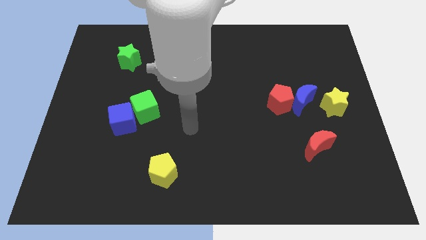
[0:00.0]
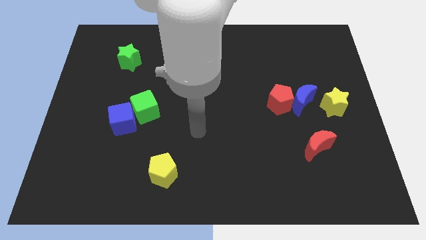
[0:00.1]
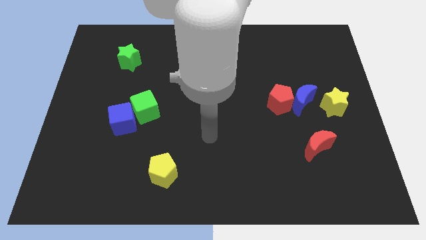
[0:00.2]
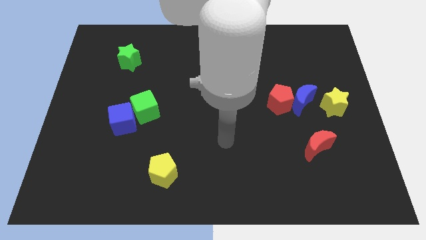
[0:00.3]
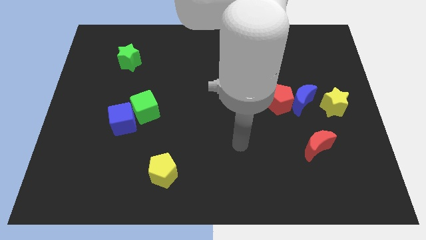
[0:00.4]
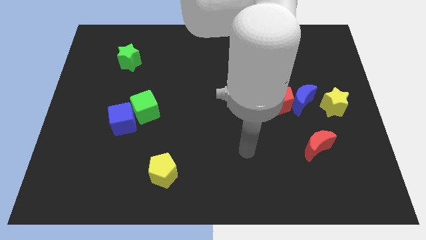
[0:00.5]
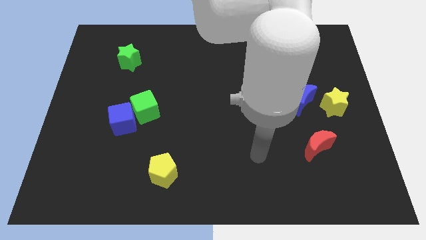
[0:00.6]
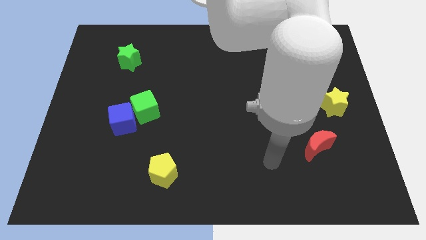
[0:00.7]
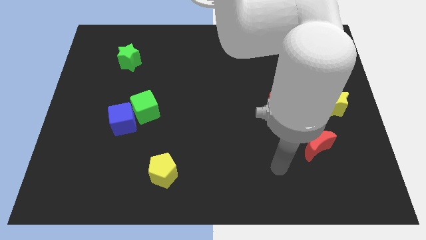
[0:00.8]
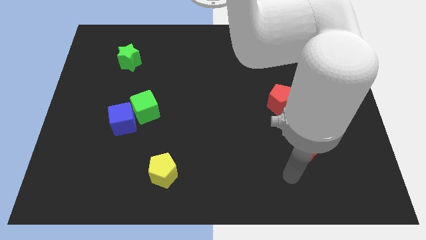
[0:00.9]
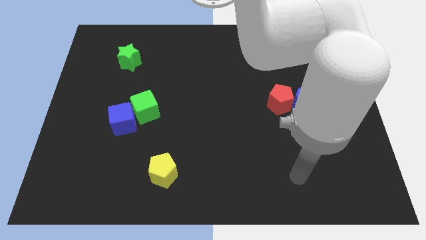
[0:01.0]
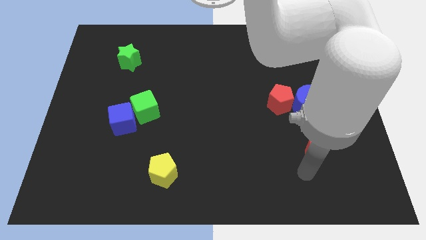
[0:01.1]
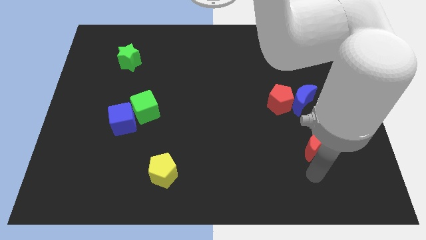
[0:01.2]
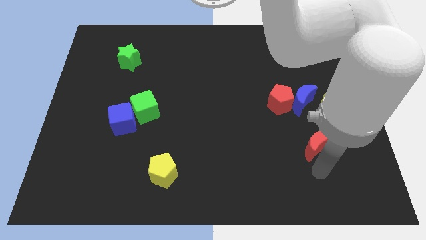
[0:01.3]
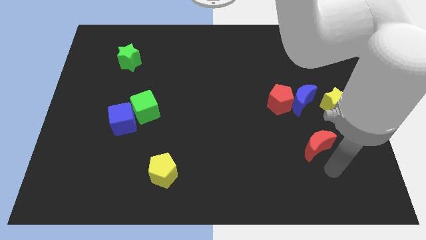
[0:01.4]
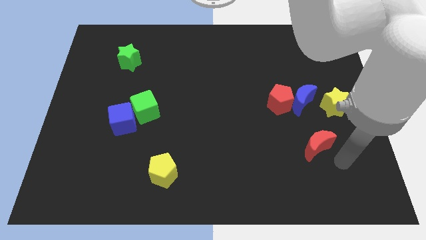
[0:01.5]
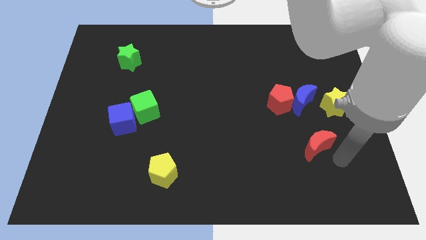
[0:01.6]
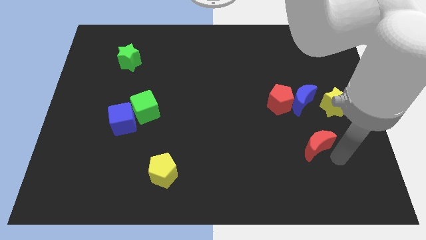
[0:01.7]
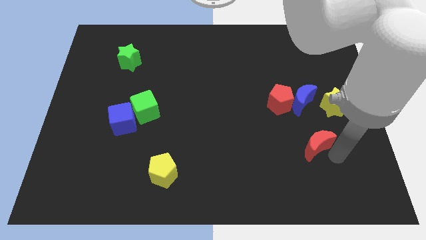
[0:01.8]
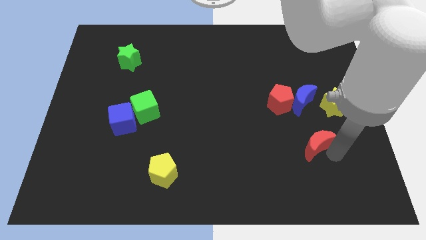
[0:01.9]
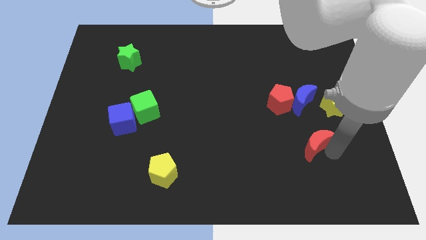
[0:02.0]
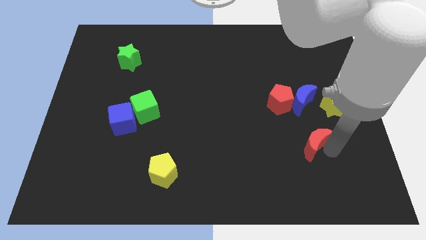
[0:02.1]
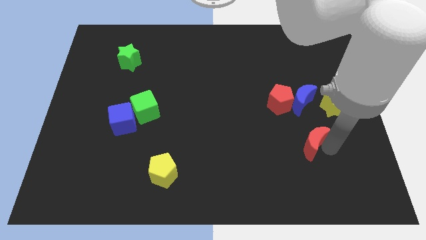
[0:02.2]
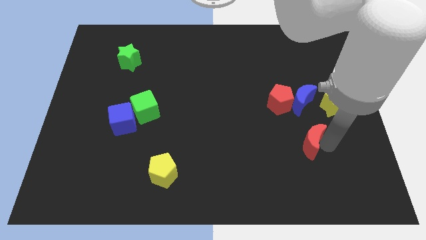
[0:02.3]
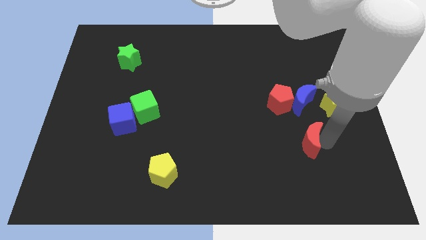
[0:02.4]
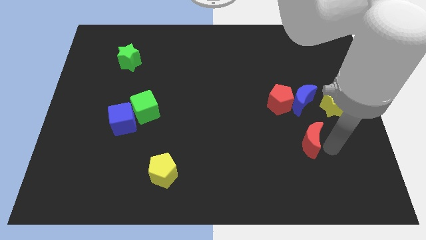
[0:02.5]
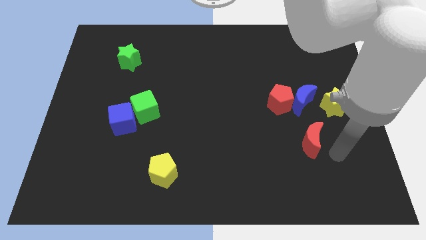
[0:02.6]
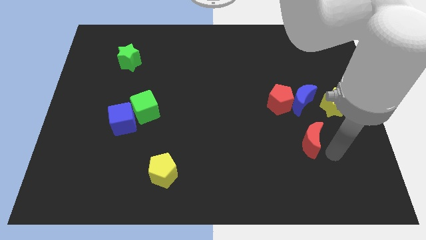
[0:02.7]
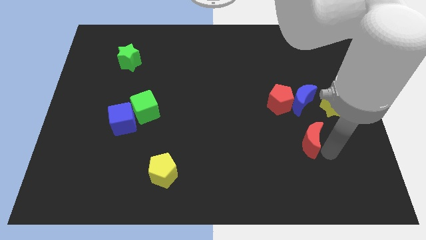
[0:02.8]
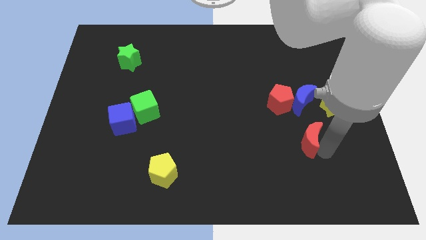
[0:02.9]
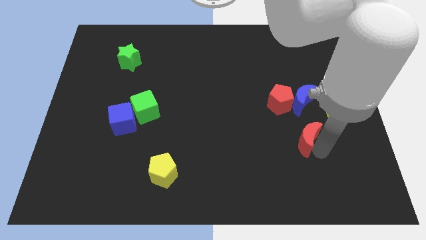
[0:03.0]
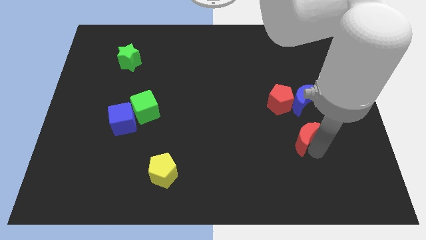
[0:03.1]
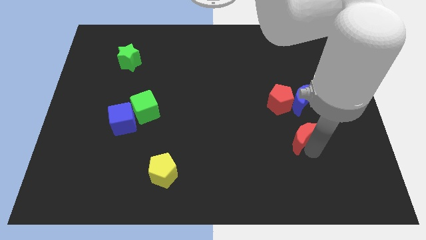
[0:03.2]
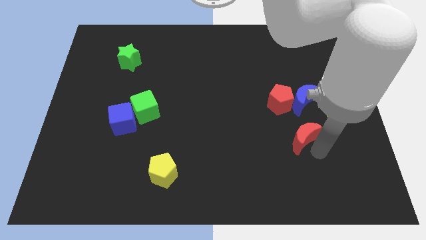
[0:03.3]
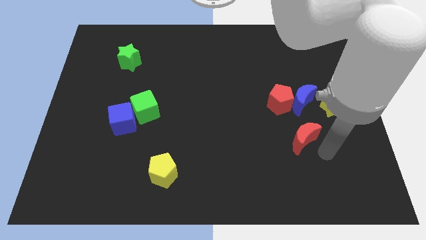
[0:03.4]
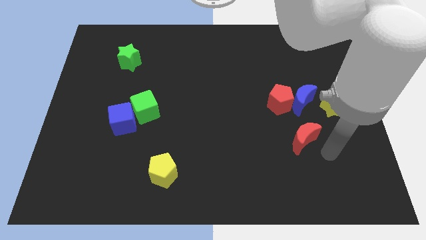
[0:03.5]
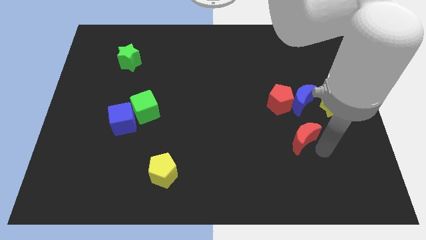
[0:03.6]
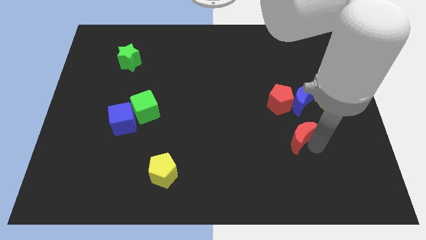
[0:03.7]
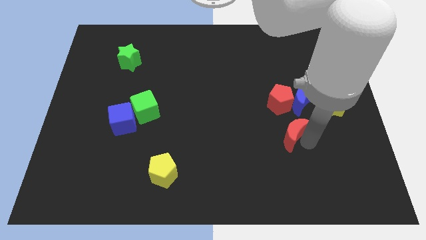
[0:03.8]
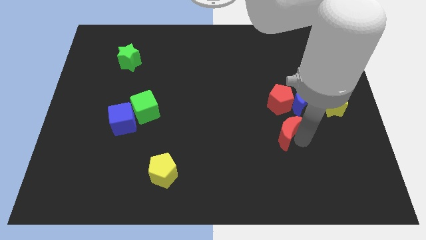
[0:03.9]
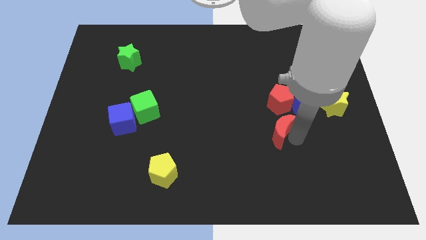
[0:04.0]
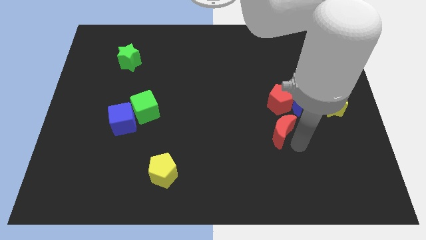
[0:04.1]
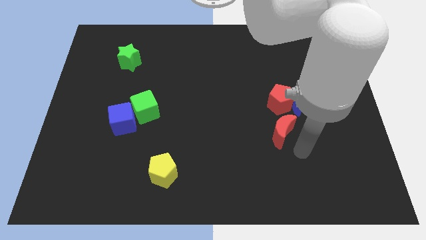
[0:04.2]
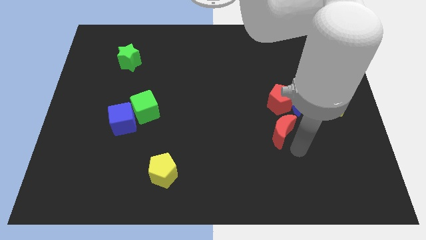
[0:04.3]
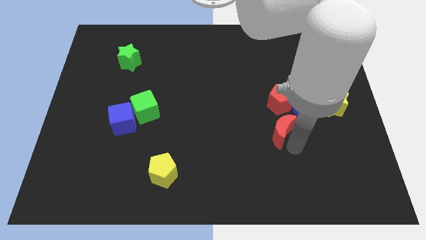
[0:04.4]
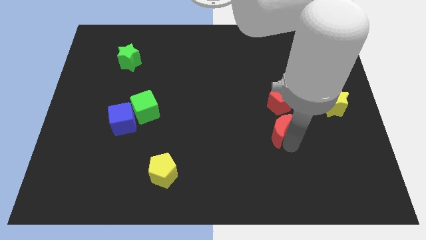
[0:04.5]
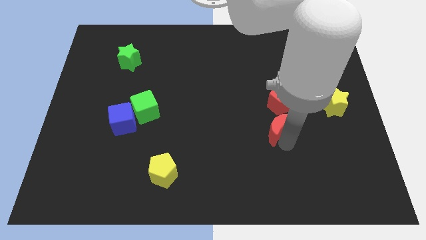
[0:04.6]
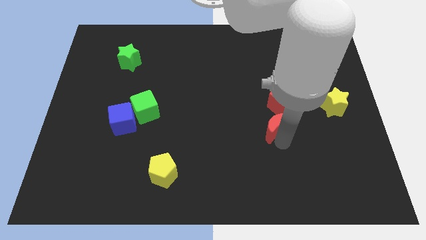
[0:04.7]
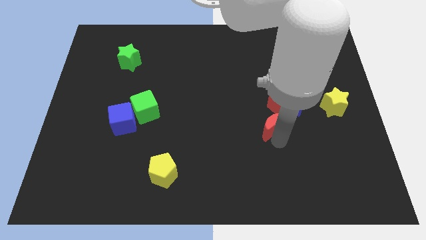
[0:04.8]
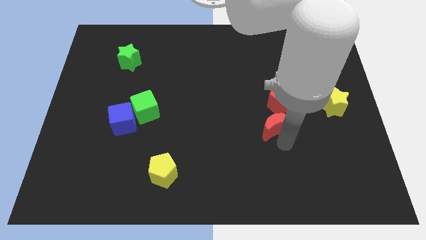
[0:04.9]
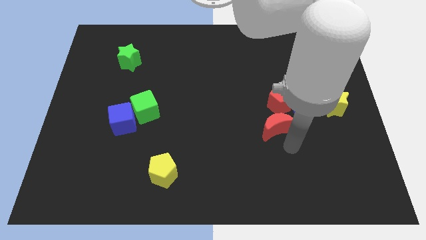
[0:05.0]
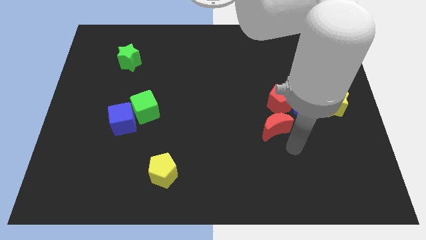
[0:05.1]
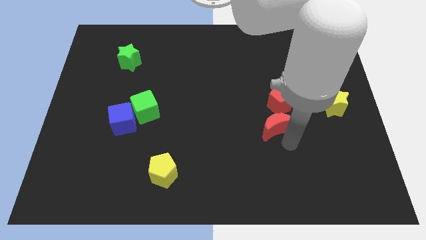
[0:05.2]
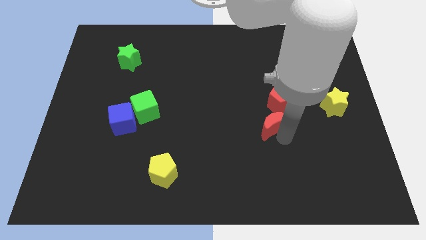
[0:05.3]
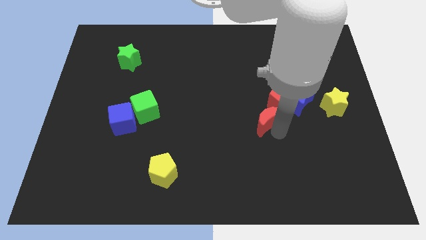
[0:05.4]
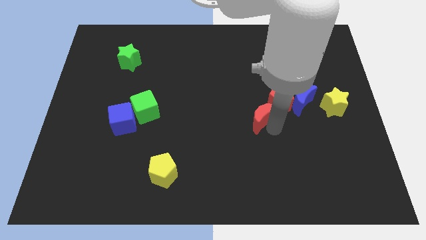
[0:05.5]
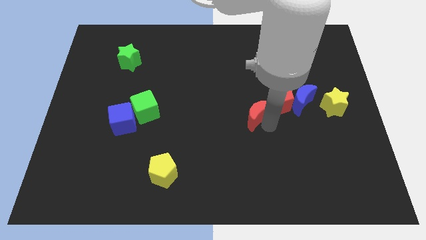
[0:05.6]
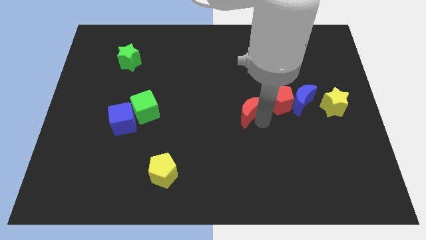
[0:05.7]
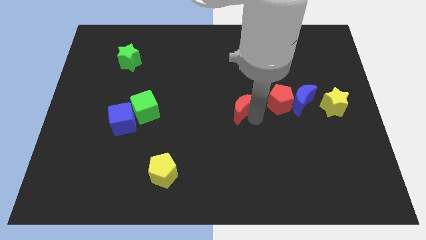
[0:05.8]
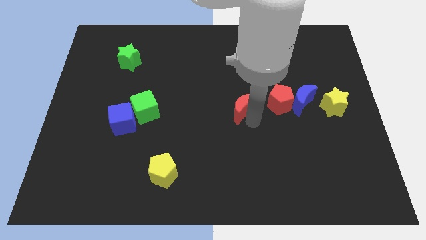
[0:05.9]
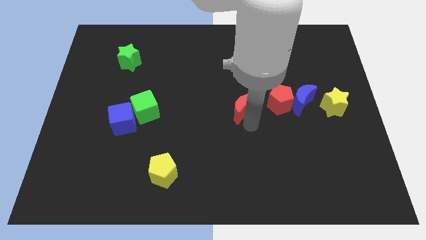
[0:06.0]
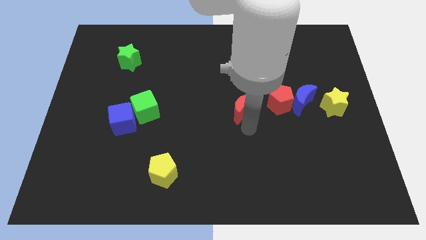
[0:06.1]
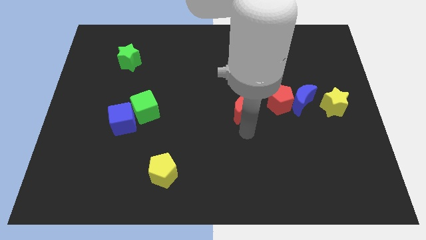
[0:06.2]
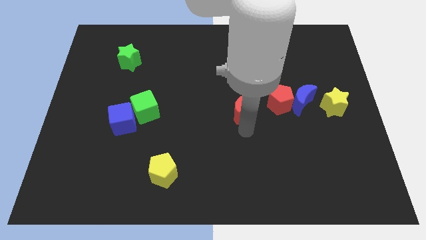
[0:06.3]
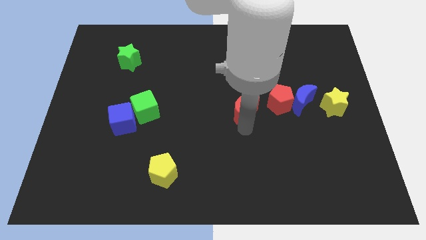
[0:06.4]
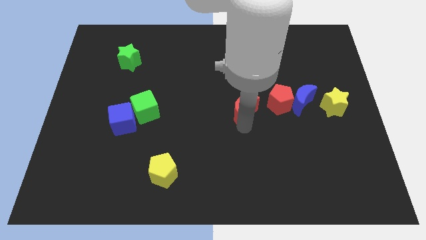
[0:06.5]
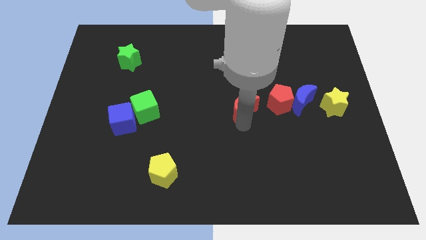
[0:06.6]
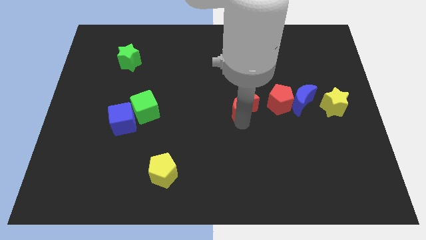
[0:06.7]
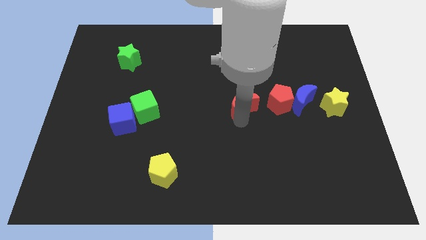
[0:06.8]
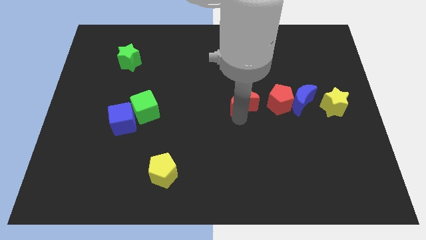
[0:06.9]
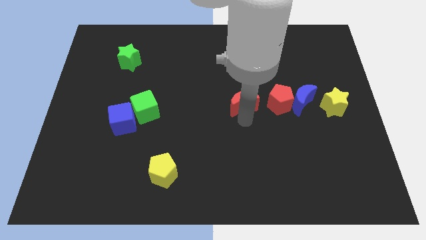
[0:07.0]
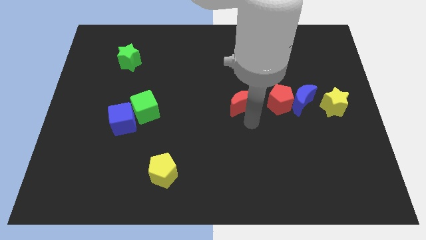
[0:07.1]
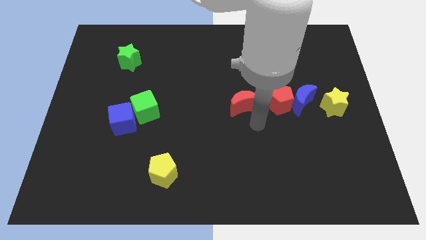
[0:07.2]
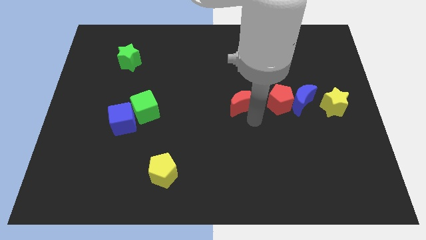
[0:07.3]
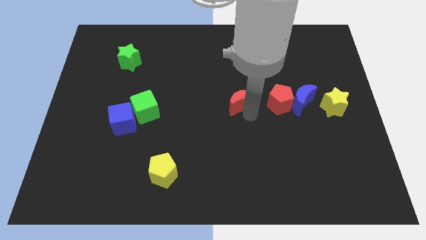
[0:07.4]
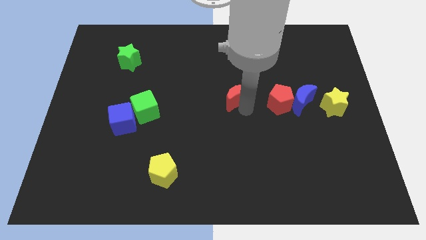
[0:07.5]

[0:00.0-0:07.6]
push the red moon up and to the left diagonally
